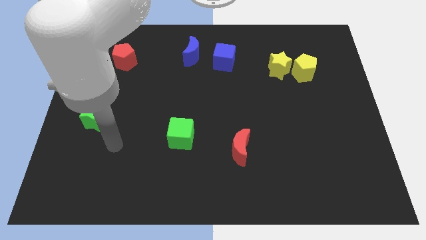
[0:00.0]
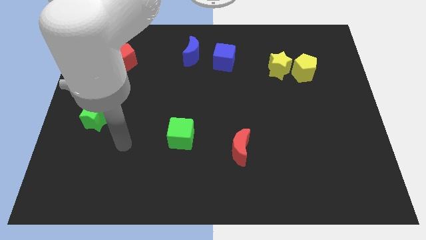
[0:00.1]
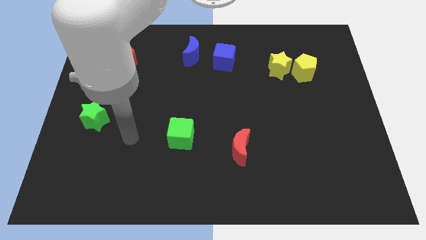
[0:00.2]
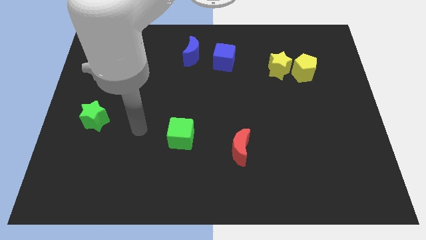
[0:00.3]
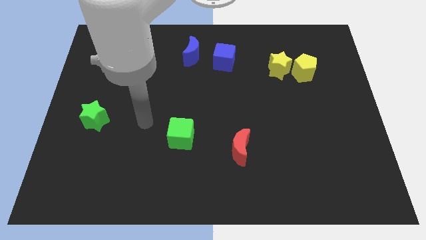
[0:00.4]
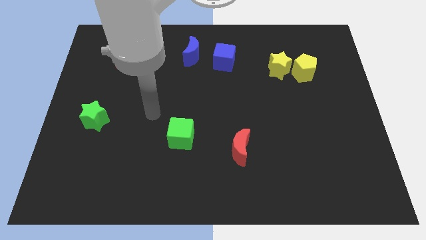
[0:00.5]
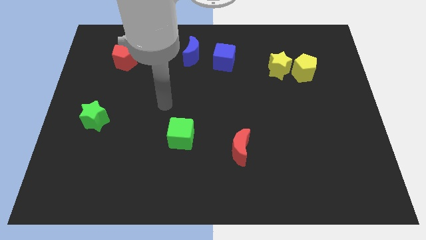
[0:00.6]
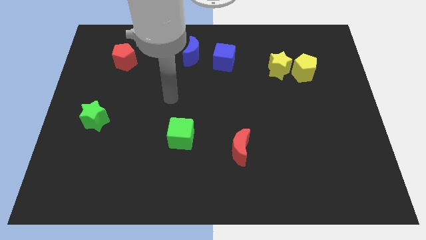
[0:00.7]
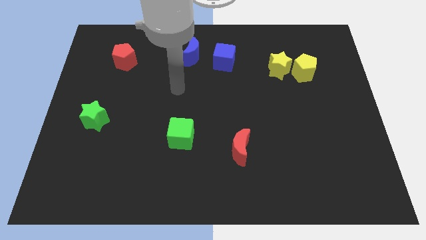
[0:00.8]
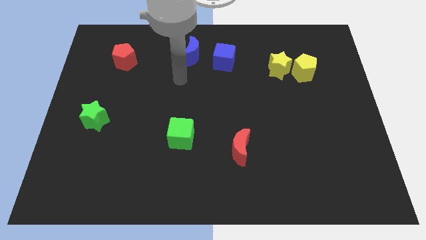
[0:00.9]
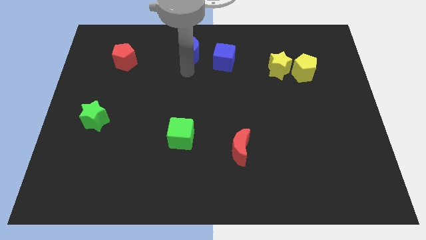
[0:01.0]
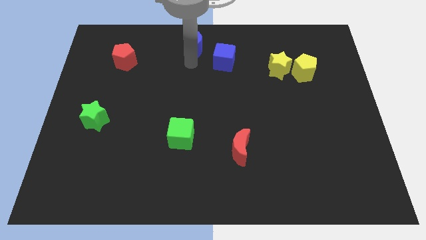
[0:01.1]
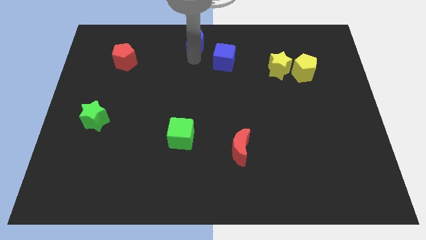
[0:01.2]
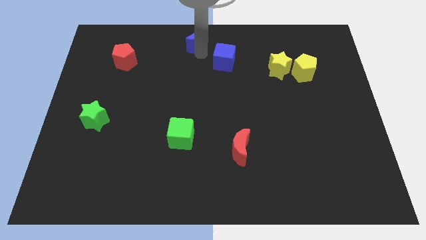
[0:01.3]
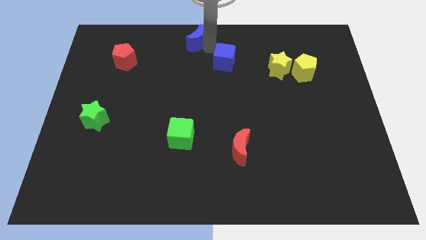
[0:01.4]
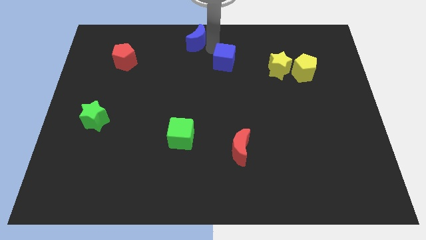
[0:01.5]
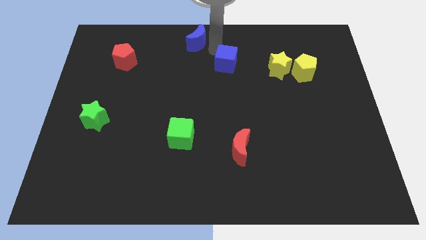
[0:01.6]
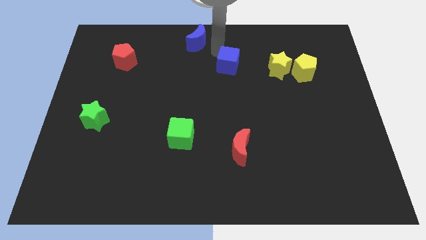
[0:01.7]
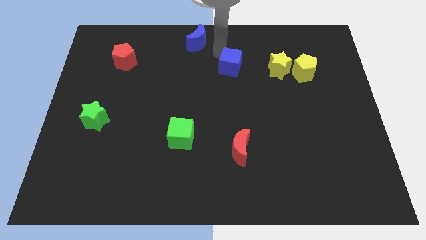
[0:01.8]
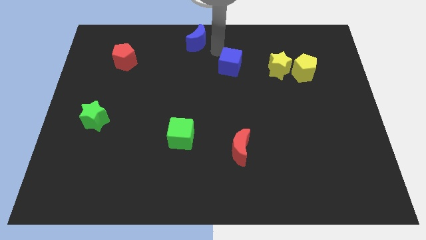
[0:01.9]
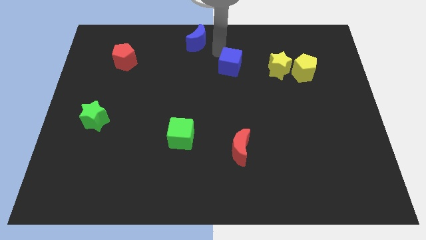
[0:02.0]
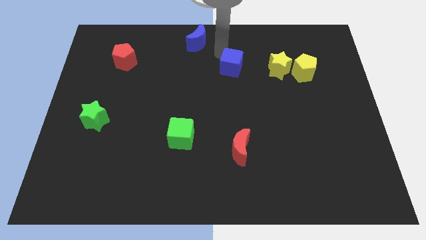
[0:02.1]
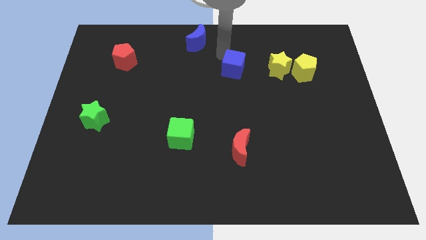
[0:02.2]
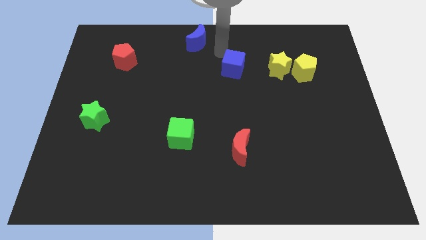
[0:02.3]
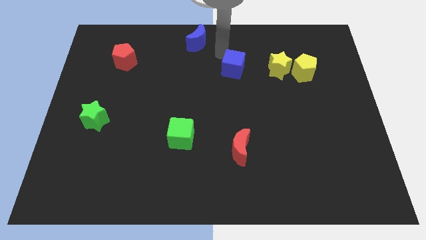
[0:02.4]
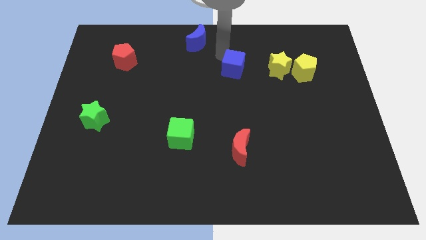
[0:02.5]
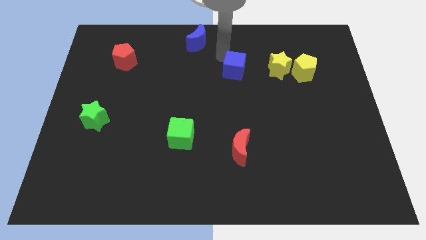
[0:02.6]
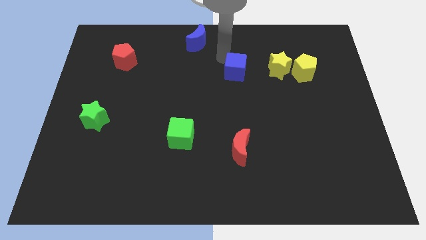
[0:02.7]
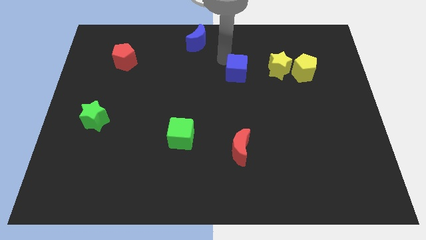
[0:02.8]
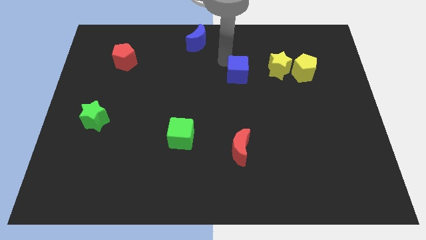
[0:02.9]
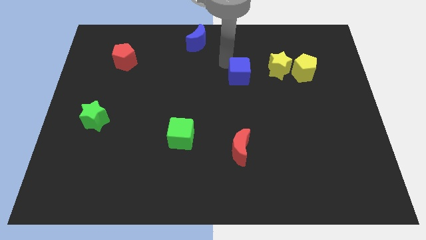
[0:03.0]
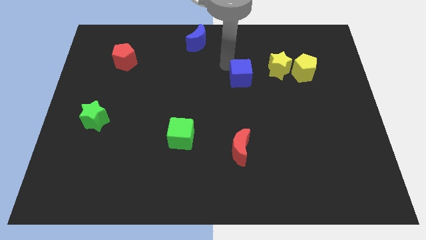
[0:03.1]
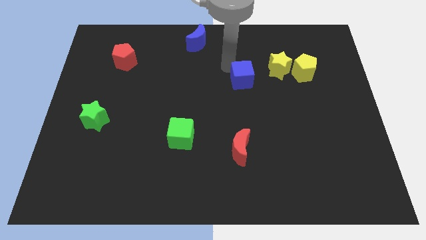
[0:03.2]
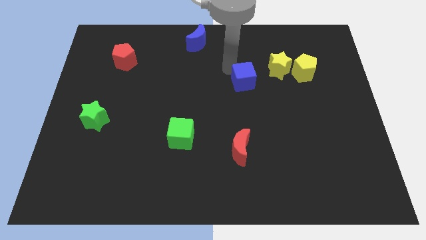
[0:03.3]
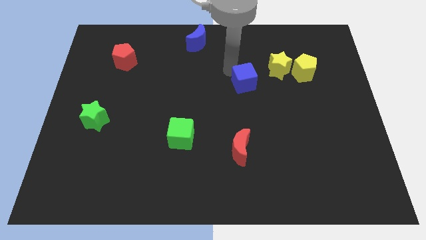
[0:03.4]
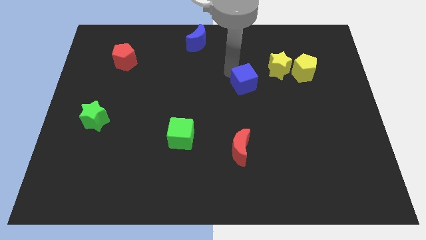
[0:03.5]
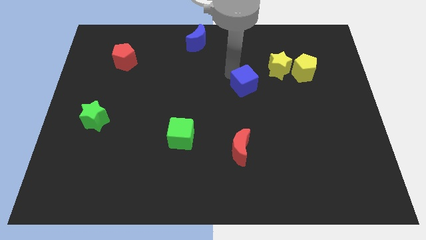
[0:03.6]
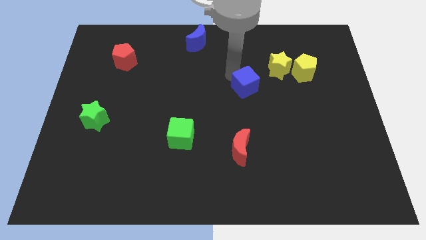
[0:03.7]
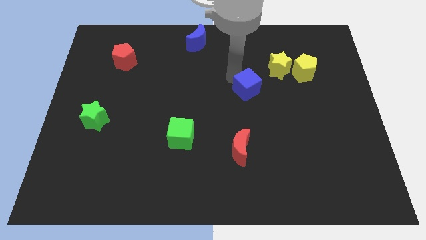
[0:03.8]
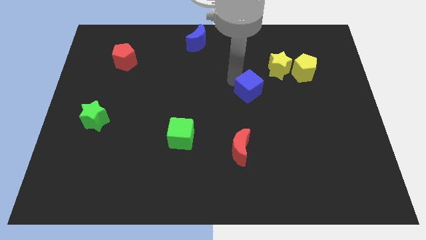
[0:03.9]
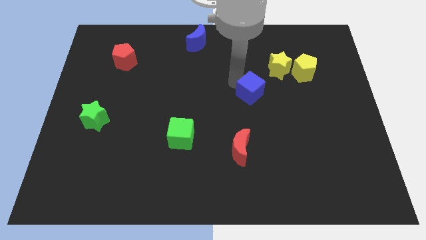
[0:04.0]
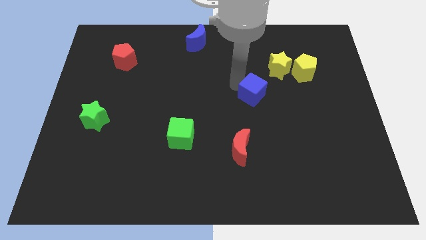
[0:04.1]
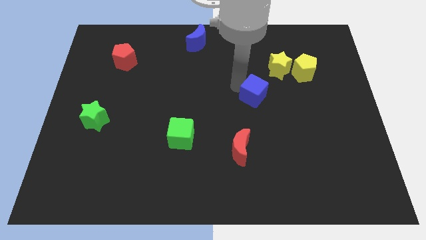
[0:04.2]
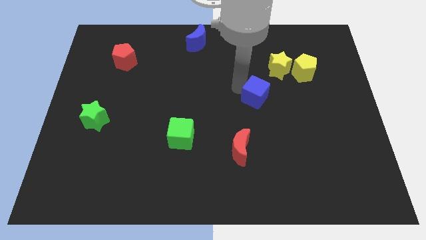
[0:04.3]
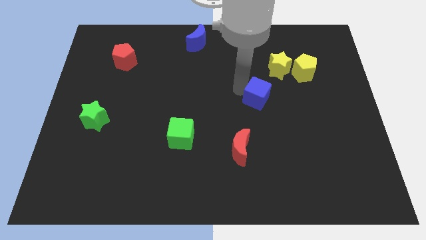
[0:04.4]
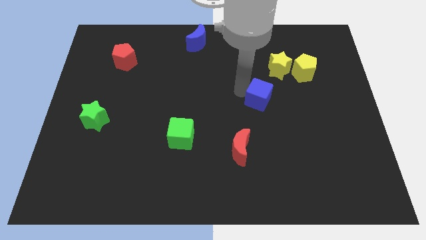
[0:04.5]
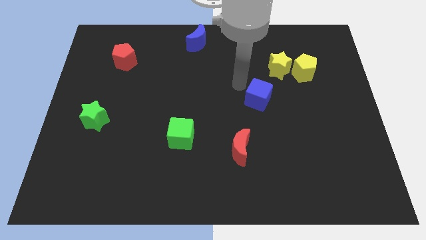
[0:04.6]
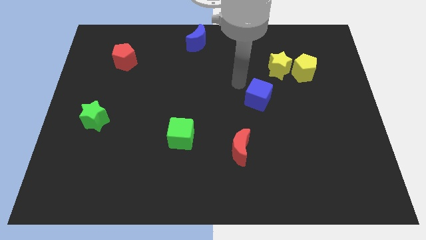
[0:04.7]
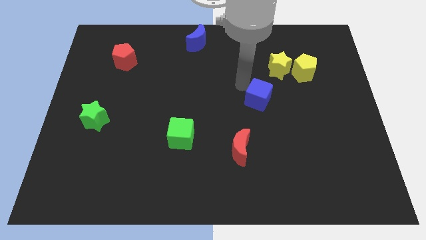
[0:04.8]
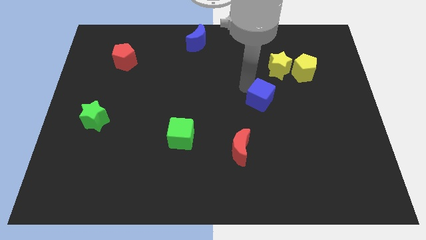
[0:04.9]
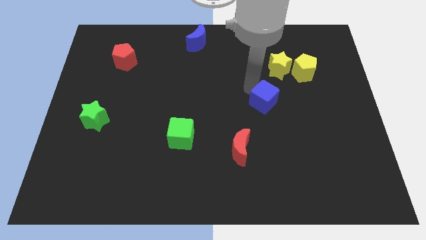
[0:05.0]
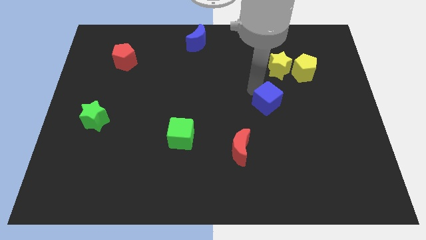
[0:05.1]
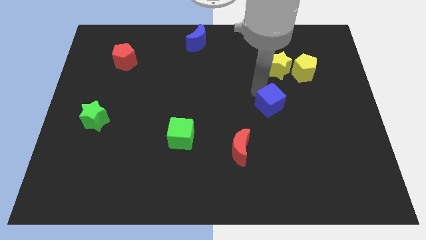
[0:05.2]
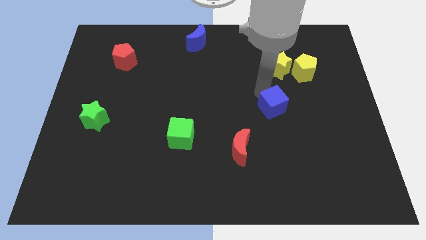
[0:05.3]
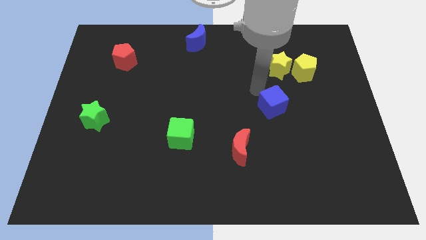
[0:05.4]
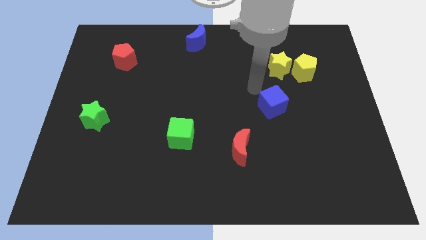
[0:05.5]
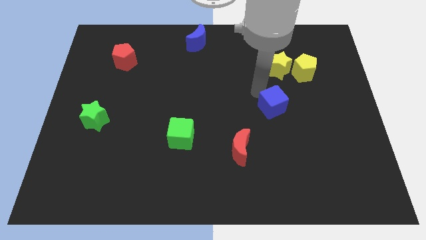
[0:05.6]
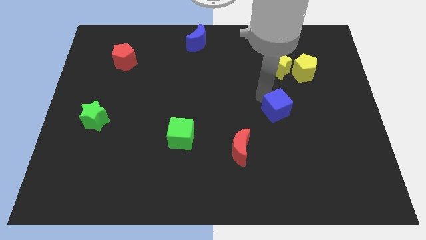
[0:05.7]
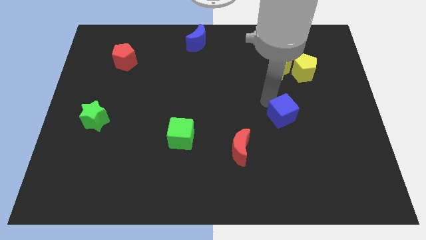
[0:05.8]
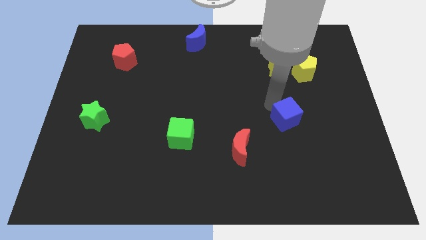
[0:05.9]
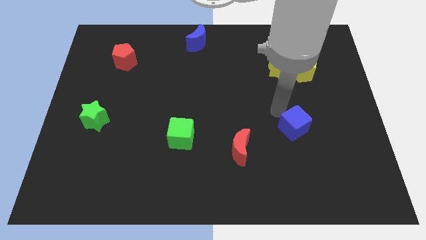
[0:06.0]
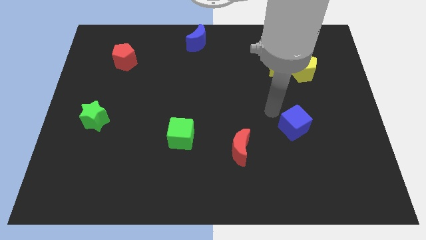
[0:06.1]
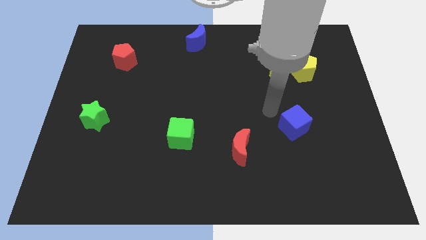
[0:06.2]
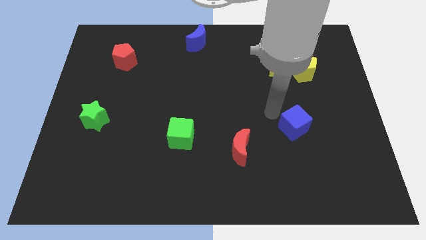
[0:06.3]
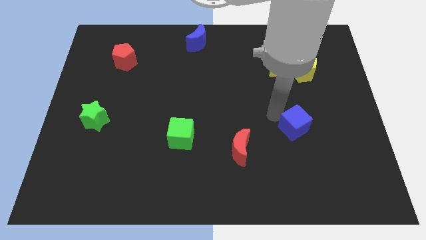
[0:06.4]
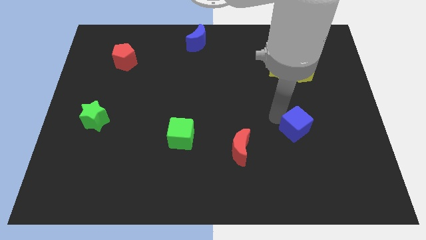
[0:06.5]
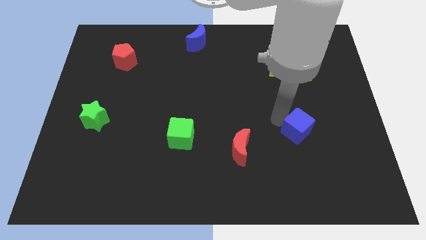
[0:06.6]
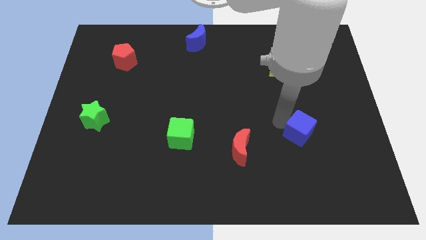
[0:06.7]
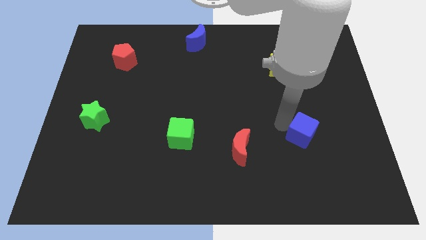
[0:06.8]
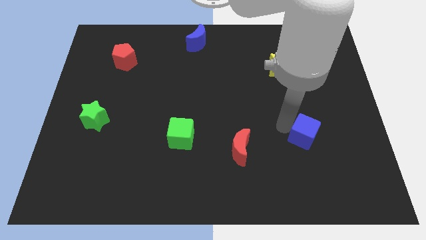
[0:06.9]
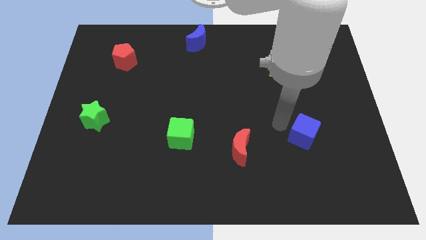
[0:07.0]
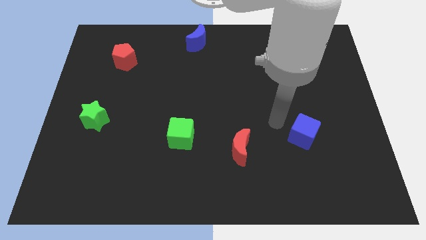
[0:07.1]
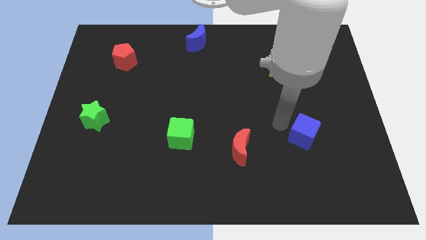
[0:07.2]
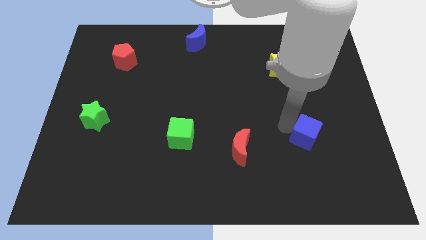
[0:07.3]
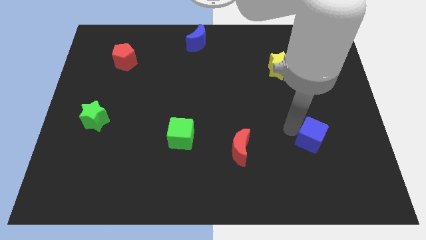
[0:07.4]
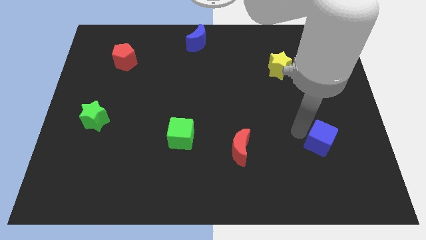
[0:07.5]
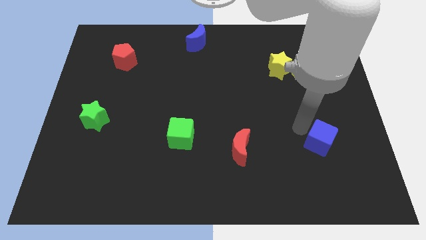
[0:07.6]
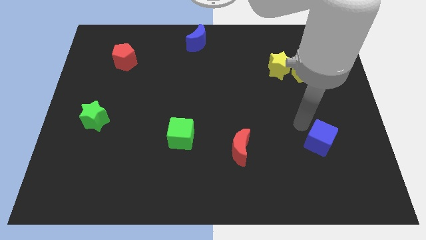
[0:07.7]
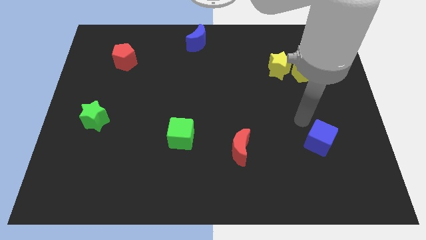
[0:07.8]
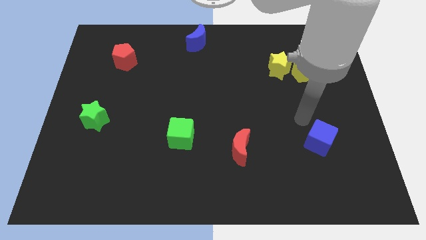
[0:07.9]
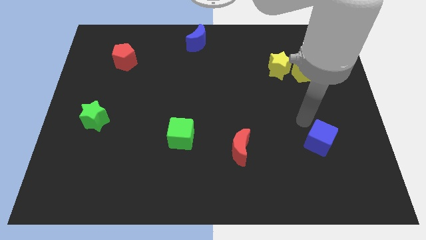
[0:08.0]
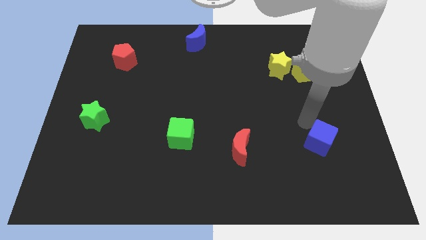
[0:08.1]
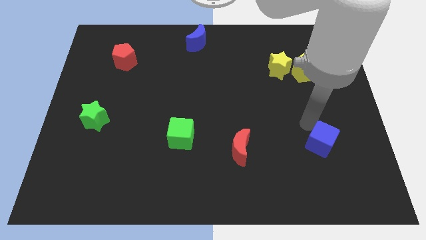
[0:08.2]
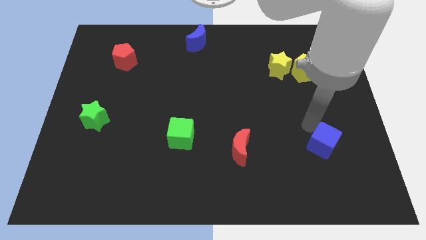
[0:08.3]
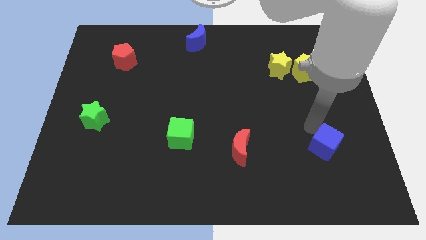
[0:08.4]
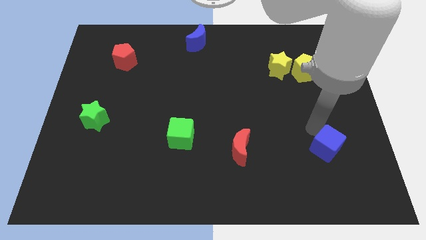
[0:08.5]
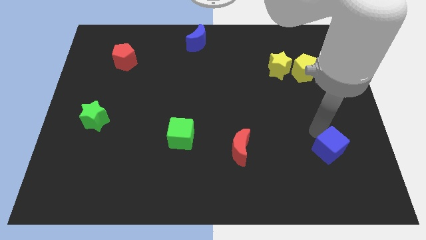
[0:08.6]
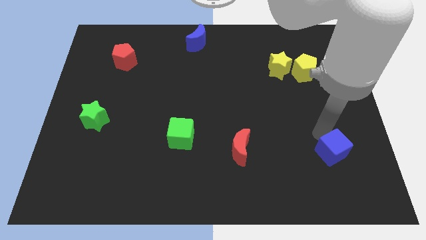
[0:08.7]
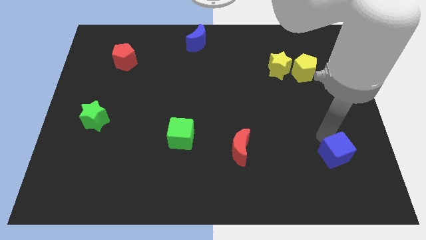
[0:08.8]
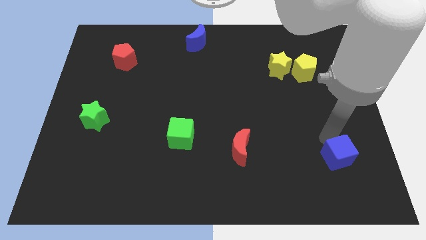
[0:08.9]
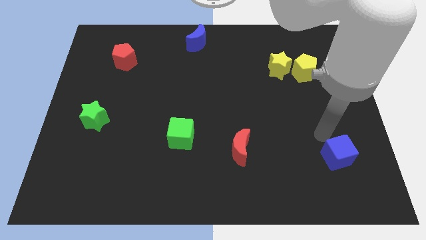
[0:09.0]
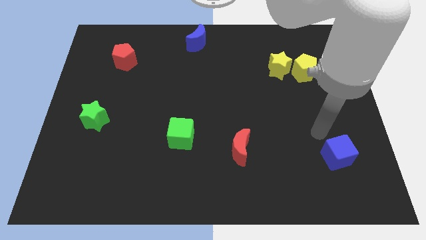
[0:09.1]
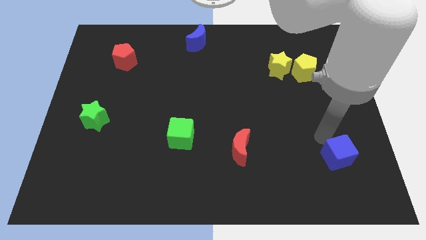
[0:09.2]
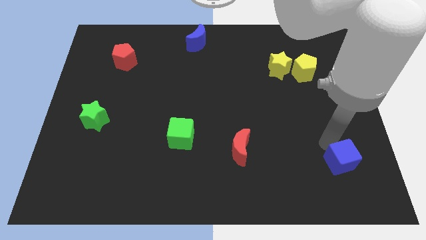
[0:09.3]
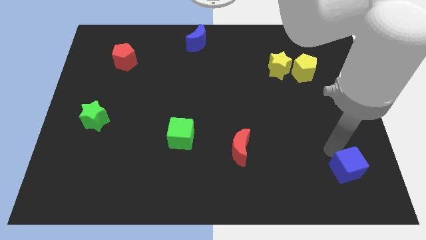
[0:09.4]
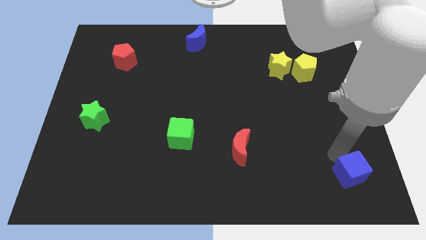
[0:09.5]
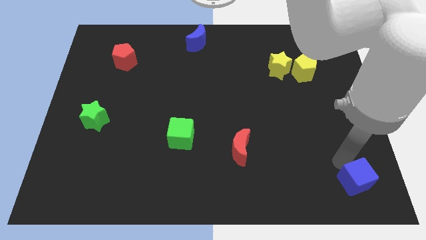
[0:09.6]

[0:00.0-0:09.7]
push the blue cube to the lower right corner
